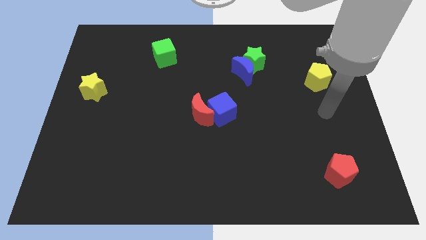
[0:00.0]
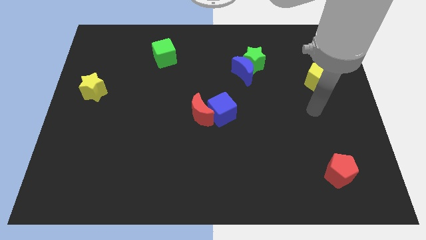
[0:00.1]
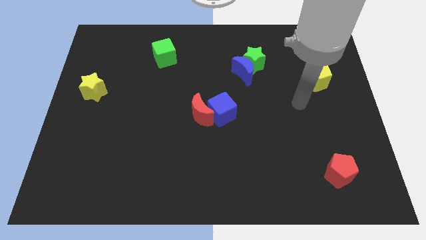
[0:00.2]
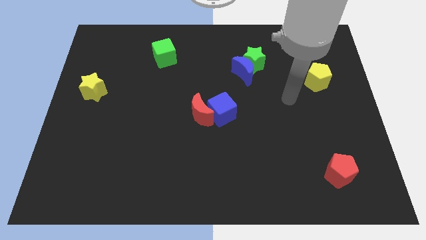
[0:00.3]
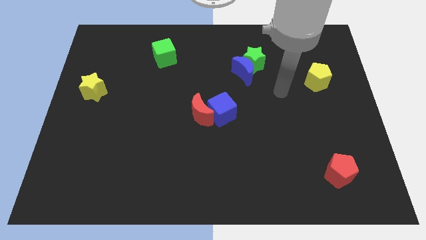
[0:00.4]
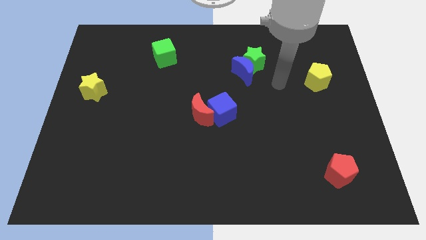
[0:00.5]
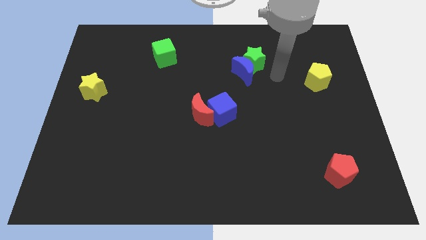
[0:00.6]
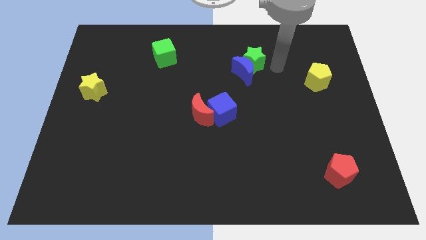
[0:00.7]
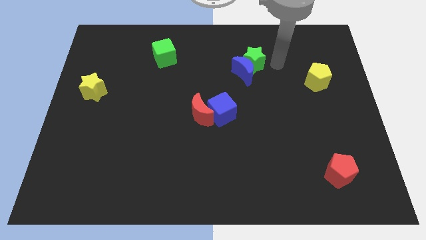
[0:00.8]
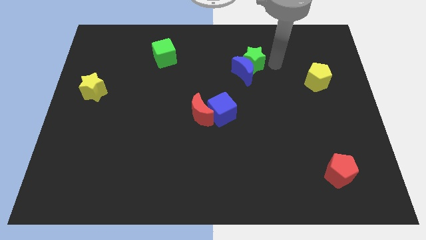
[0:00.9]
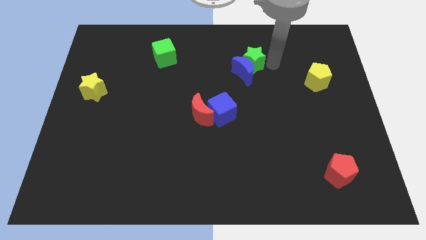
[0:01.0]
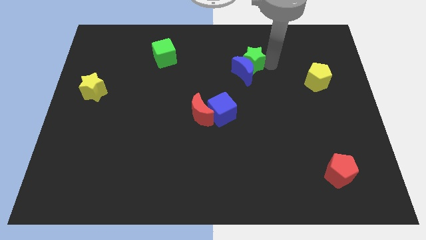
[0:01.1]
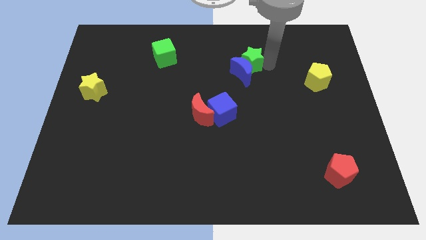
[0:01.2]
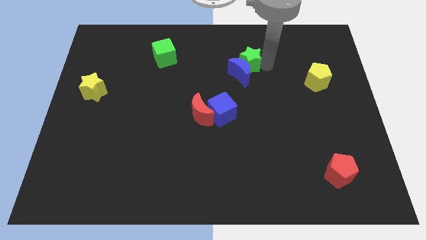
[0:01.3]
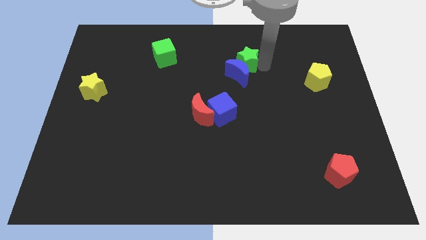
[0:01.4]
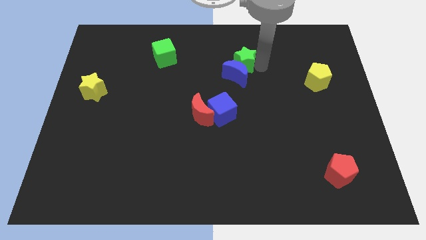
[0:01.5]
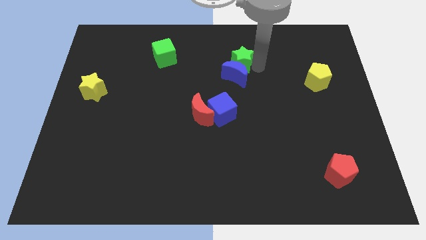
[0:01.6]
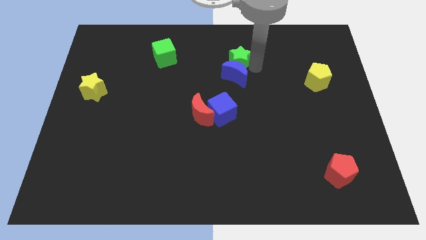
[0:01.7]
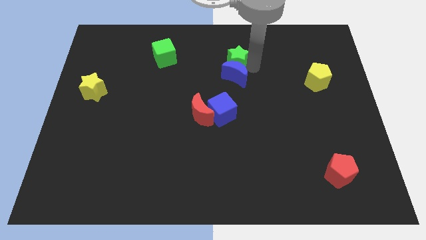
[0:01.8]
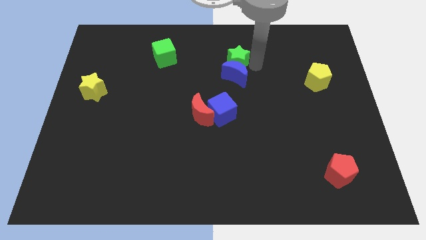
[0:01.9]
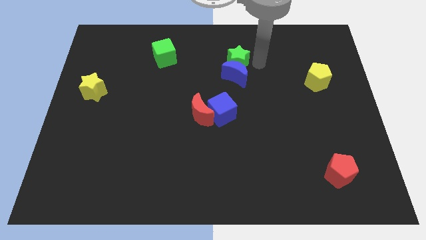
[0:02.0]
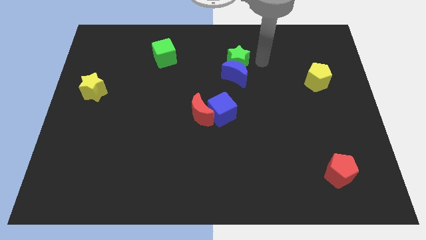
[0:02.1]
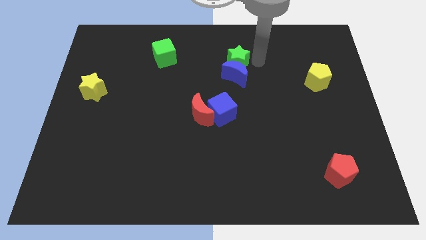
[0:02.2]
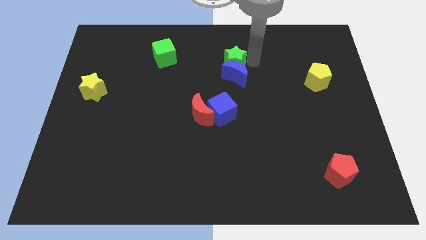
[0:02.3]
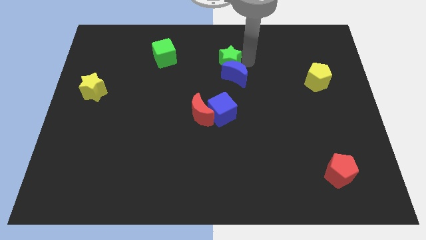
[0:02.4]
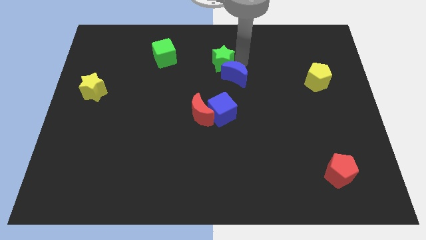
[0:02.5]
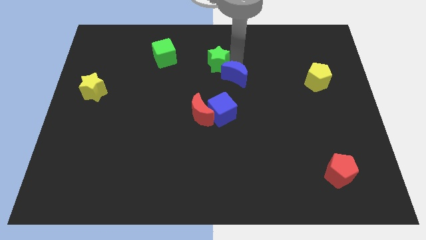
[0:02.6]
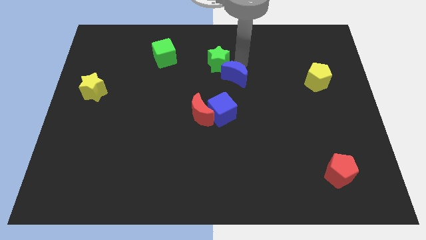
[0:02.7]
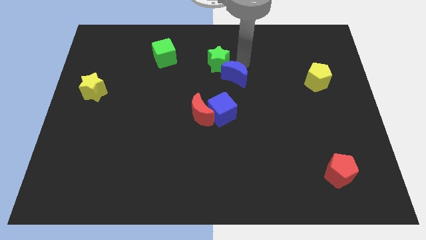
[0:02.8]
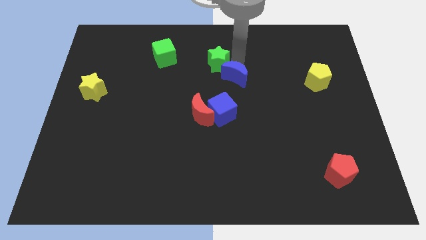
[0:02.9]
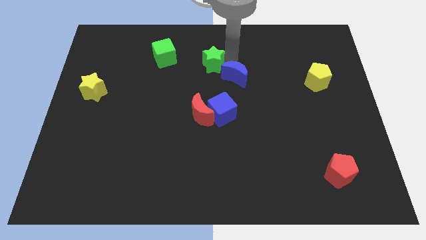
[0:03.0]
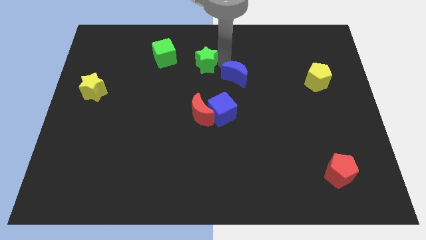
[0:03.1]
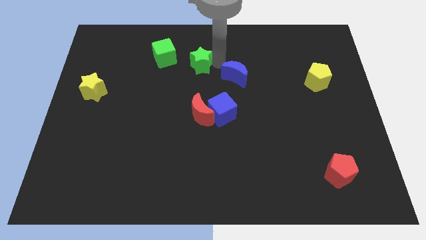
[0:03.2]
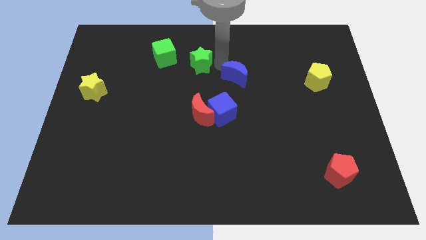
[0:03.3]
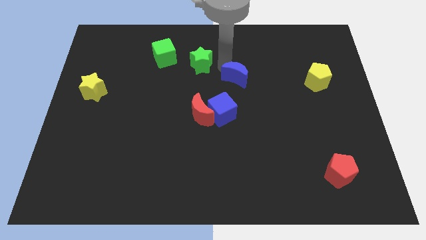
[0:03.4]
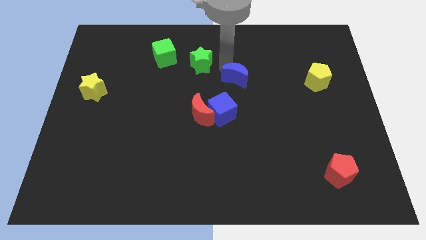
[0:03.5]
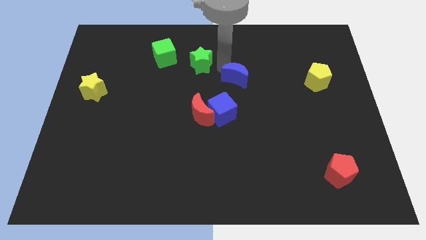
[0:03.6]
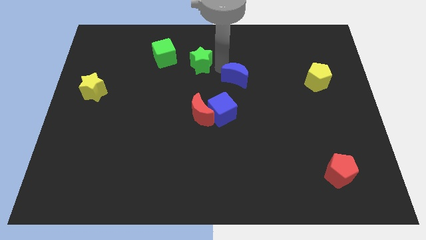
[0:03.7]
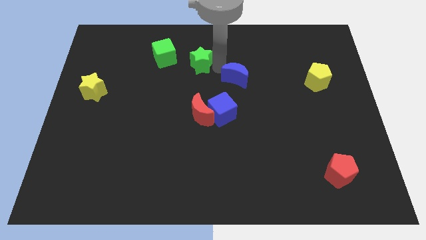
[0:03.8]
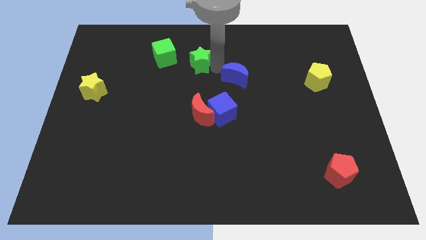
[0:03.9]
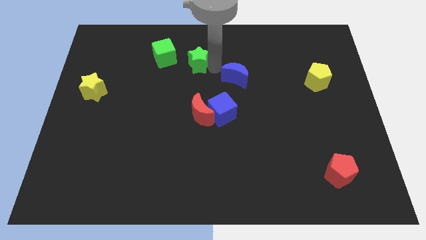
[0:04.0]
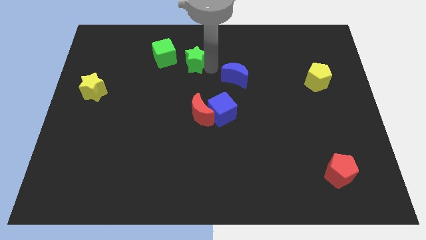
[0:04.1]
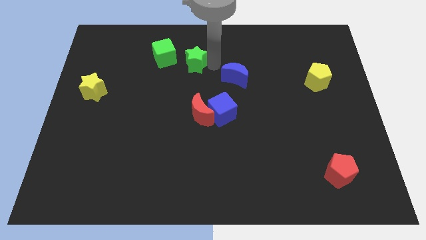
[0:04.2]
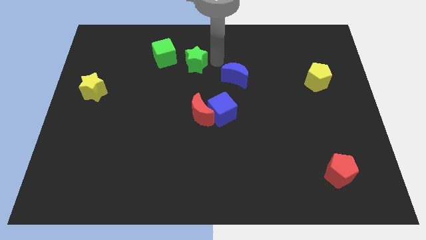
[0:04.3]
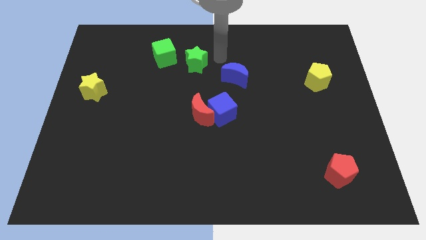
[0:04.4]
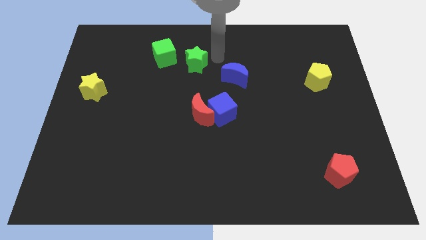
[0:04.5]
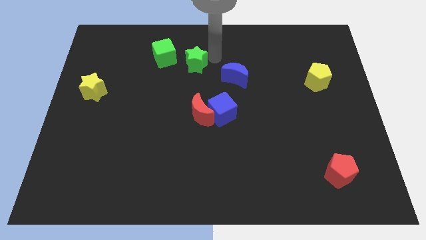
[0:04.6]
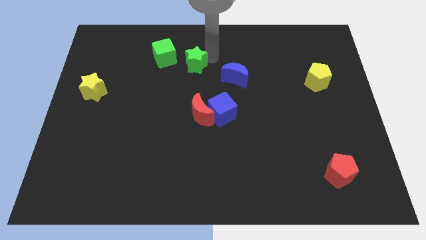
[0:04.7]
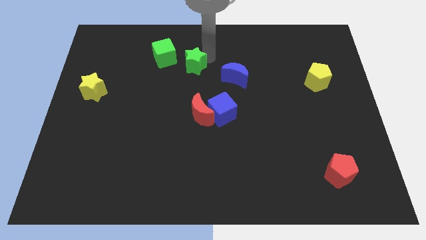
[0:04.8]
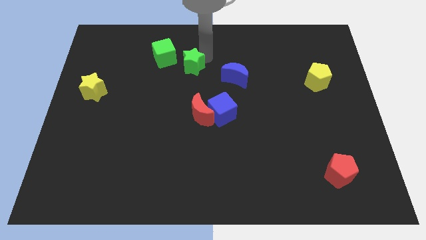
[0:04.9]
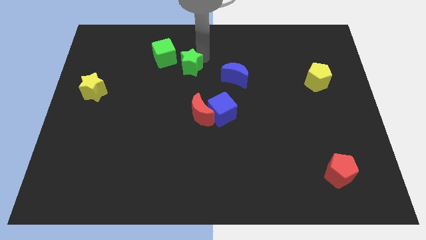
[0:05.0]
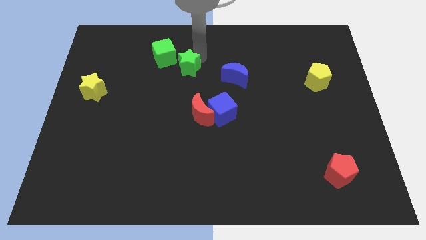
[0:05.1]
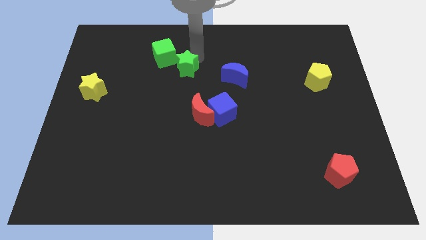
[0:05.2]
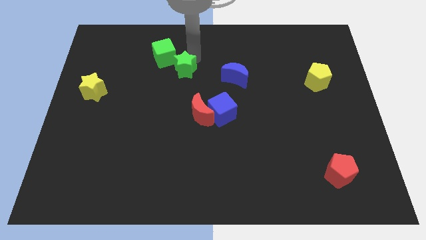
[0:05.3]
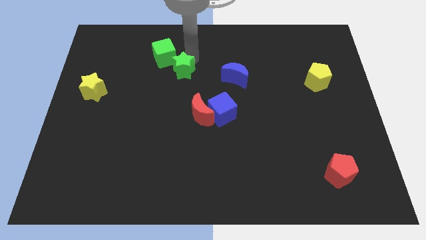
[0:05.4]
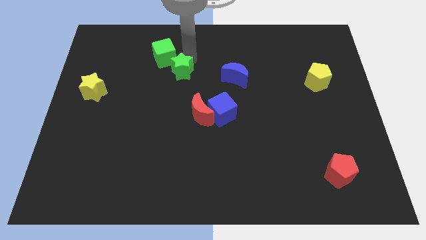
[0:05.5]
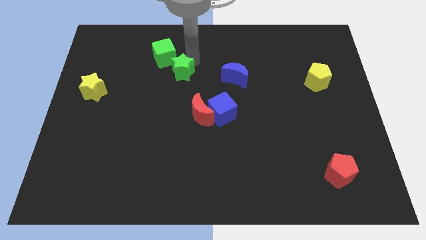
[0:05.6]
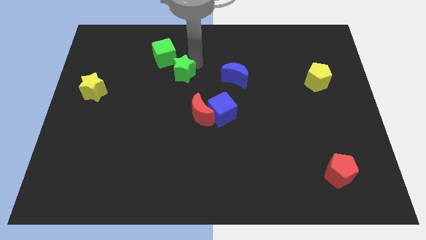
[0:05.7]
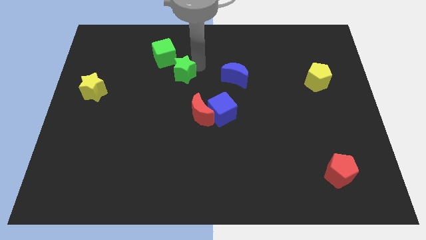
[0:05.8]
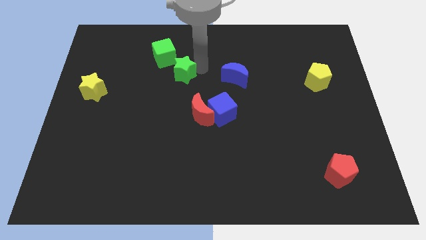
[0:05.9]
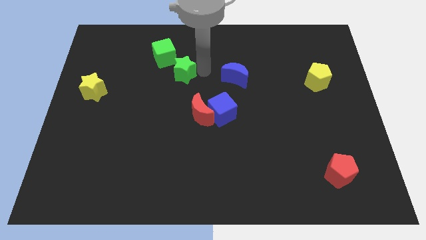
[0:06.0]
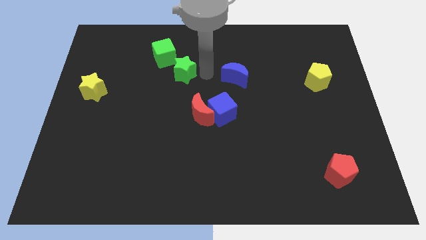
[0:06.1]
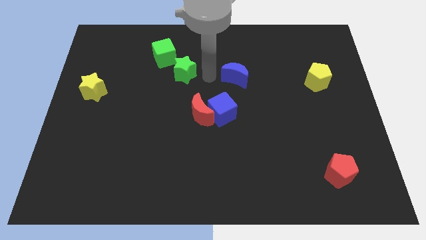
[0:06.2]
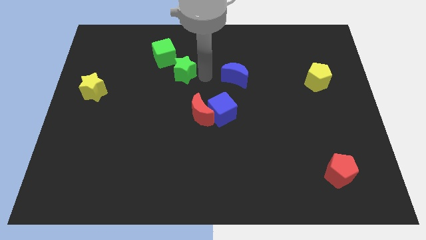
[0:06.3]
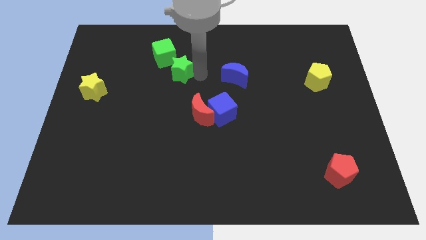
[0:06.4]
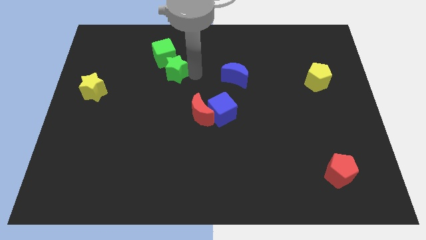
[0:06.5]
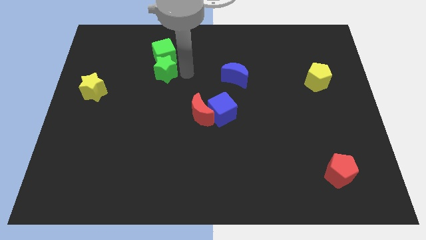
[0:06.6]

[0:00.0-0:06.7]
move the green star to the left

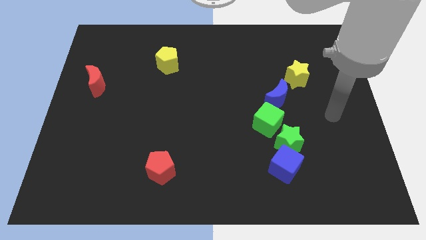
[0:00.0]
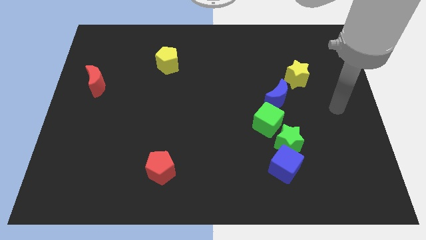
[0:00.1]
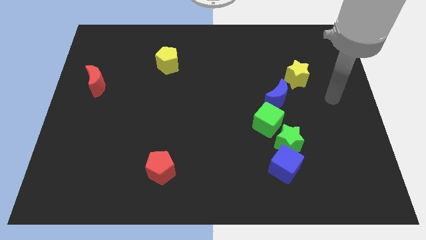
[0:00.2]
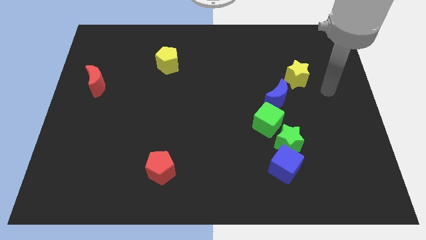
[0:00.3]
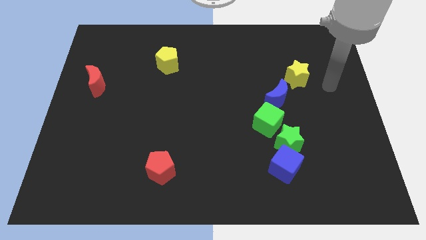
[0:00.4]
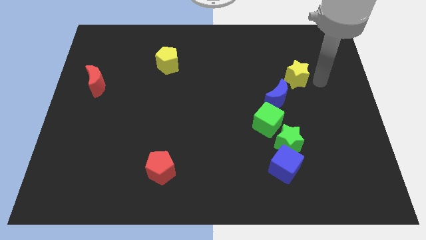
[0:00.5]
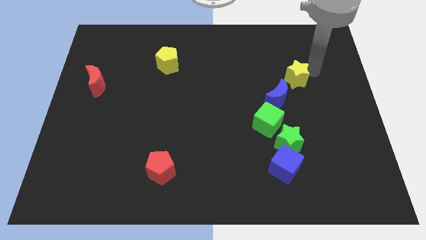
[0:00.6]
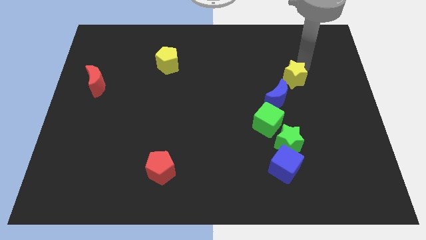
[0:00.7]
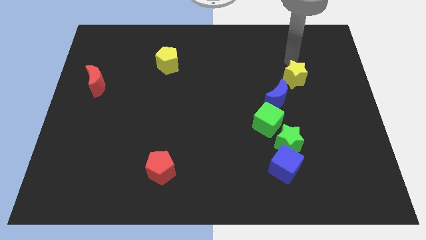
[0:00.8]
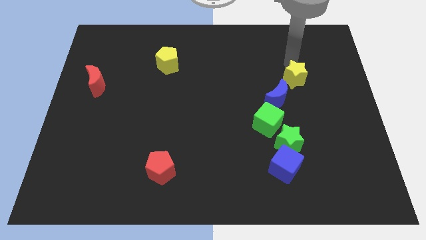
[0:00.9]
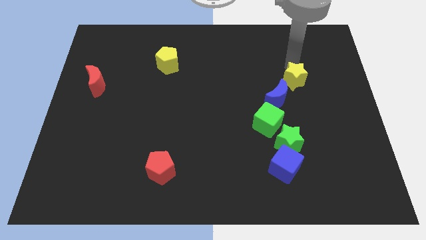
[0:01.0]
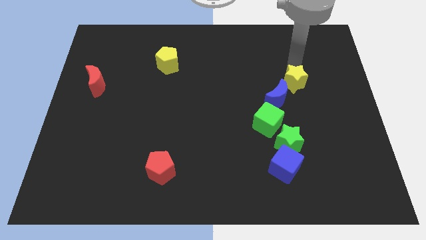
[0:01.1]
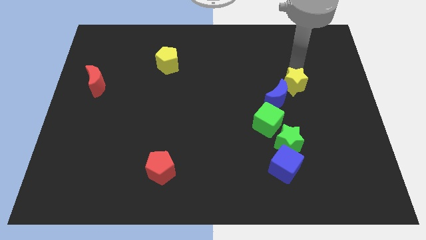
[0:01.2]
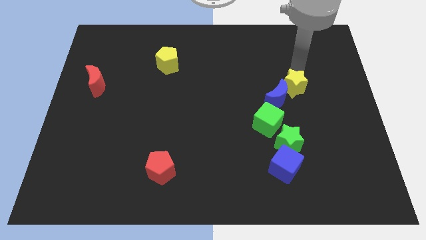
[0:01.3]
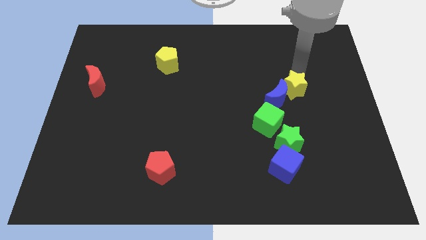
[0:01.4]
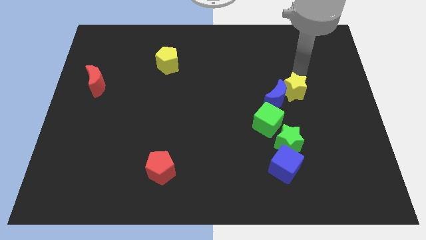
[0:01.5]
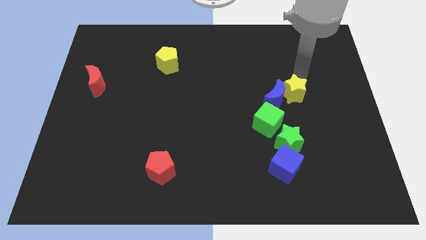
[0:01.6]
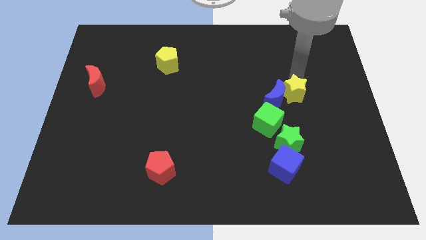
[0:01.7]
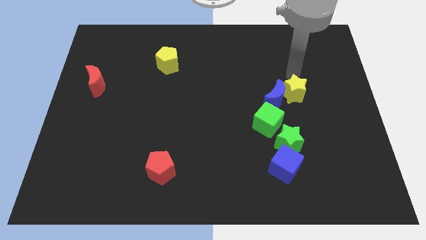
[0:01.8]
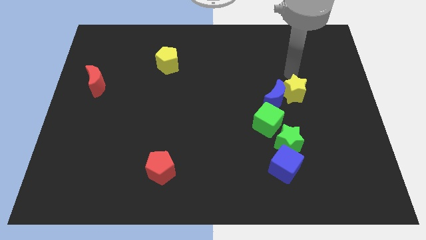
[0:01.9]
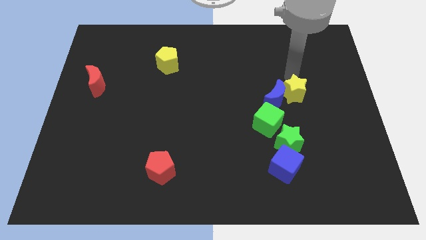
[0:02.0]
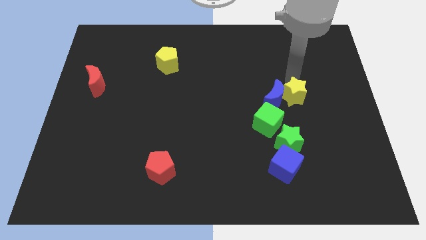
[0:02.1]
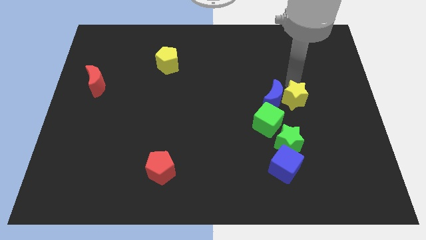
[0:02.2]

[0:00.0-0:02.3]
slightly move the yellow star downwards
